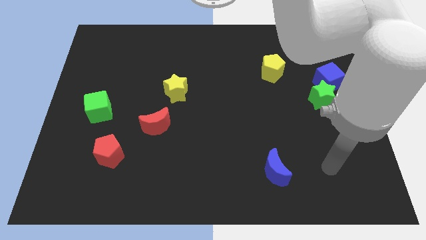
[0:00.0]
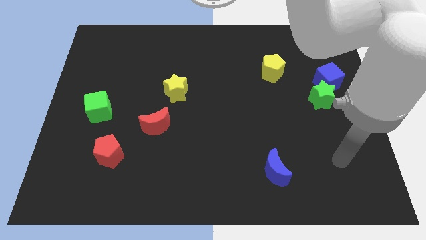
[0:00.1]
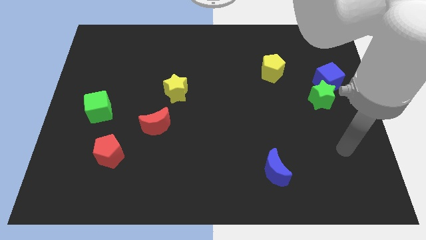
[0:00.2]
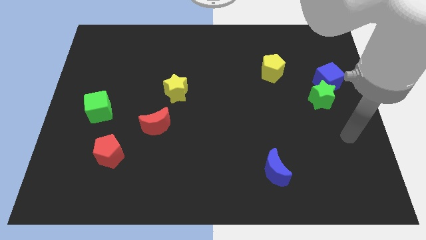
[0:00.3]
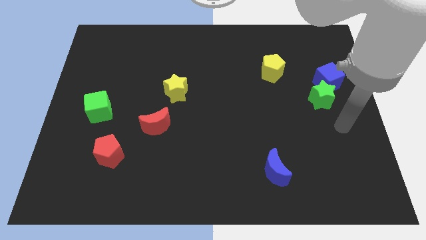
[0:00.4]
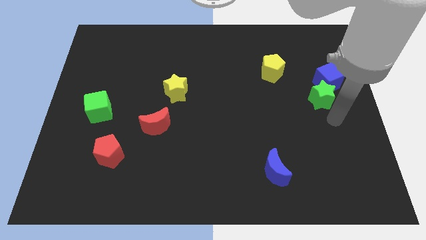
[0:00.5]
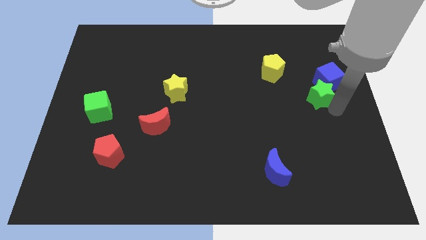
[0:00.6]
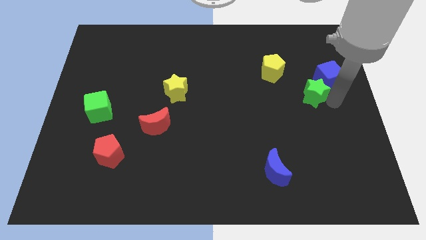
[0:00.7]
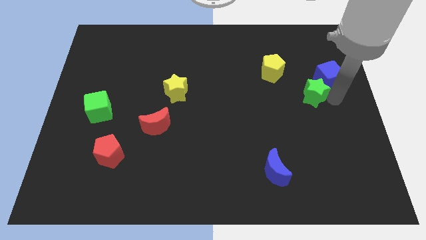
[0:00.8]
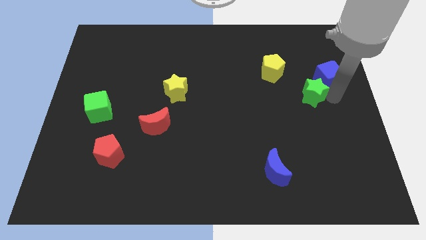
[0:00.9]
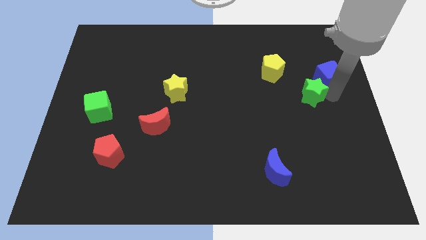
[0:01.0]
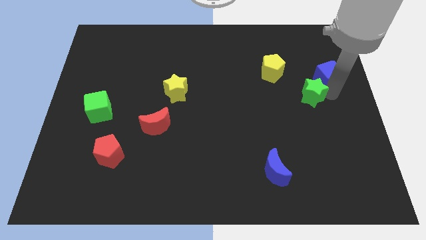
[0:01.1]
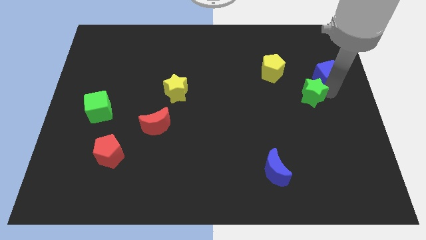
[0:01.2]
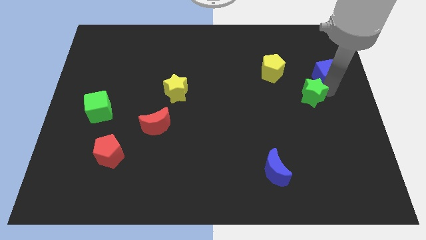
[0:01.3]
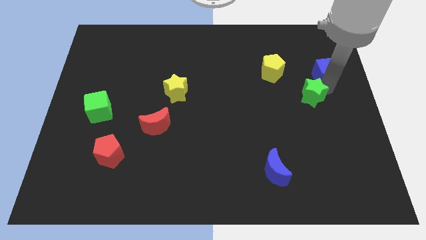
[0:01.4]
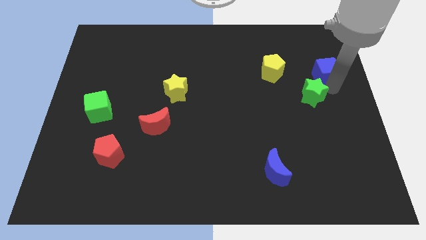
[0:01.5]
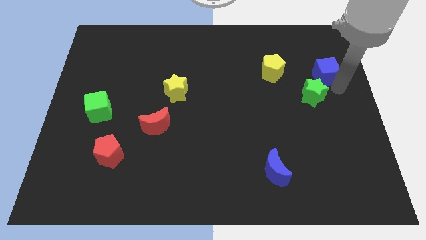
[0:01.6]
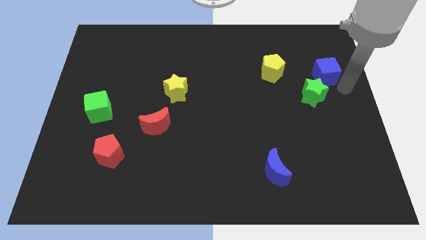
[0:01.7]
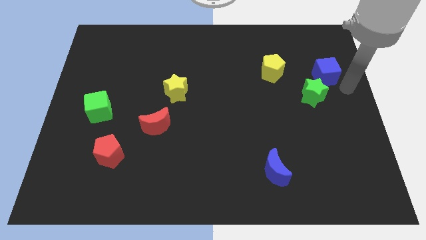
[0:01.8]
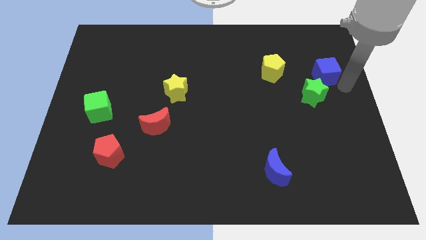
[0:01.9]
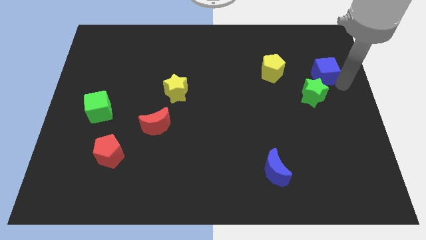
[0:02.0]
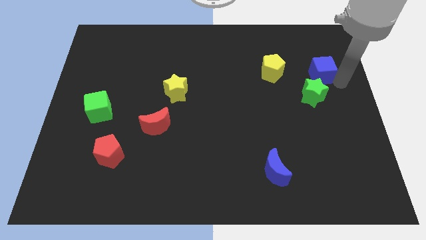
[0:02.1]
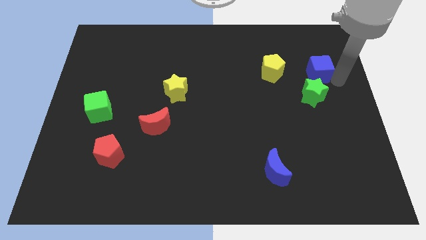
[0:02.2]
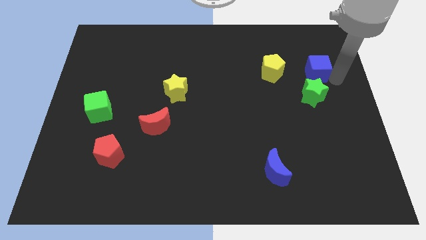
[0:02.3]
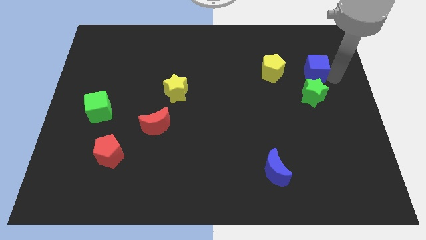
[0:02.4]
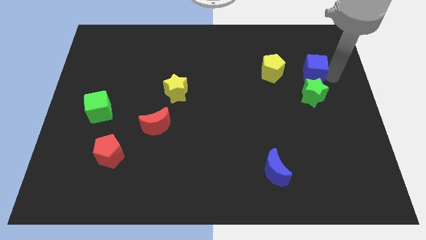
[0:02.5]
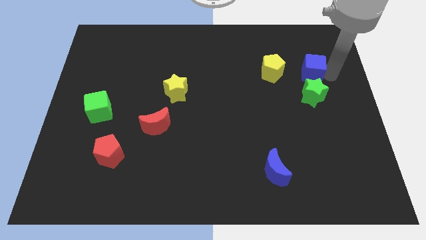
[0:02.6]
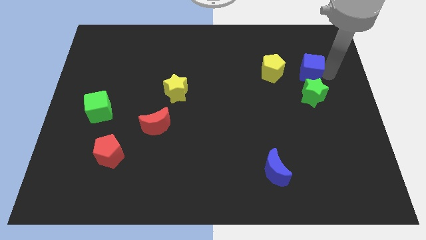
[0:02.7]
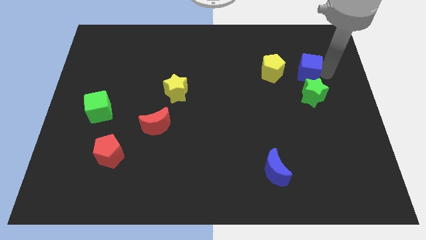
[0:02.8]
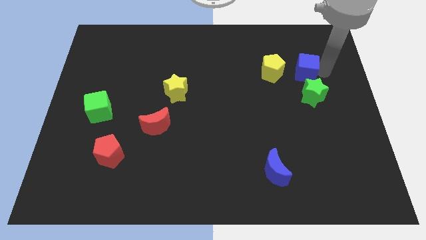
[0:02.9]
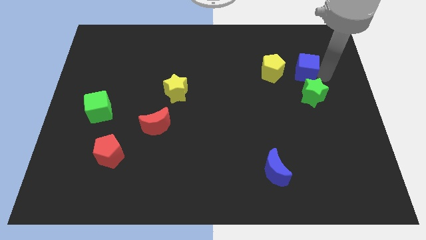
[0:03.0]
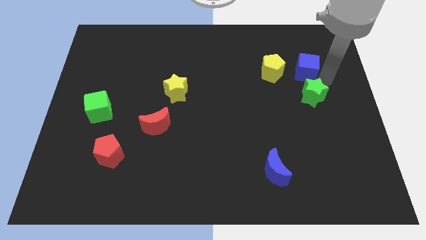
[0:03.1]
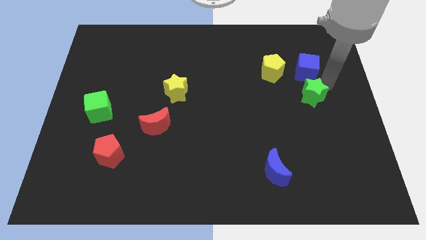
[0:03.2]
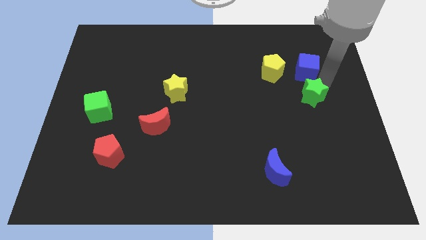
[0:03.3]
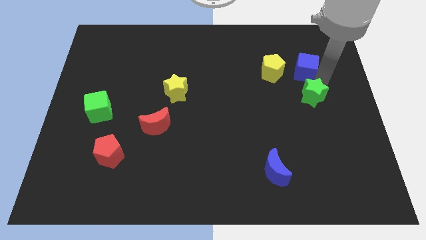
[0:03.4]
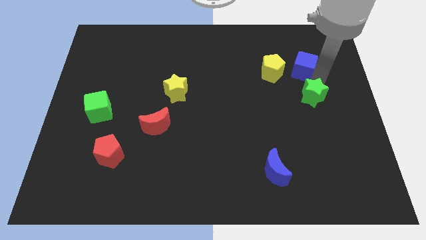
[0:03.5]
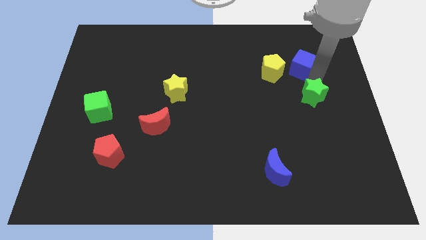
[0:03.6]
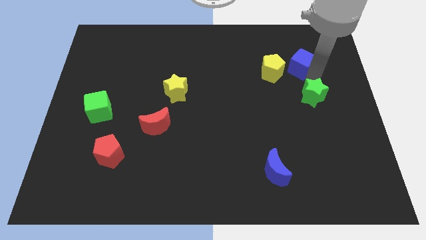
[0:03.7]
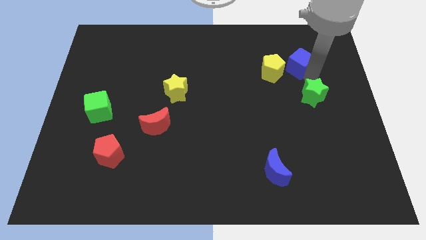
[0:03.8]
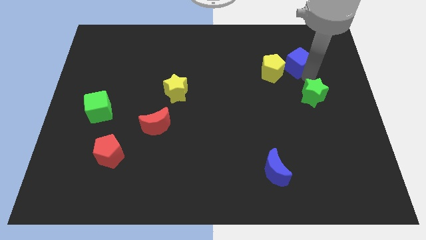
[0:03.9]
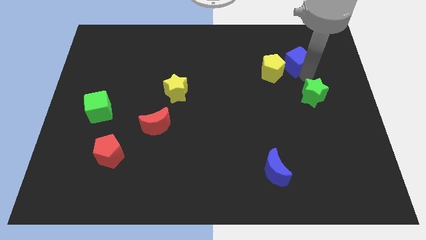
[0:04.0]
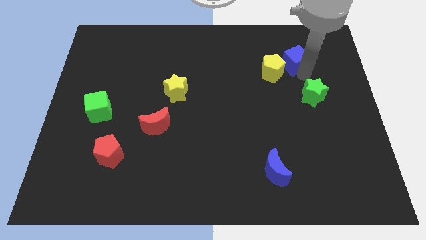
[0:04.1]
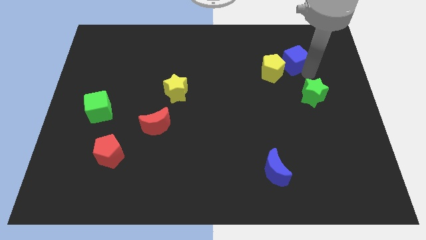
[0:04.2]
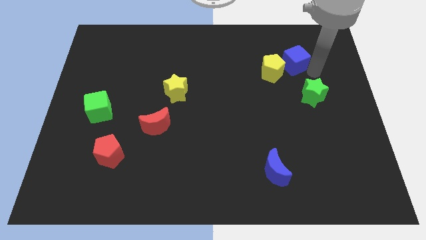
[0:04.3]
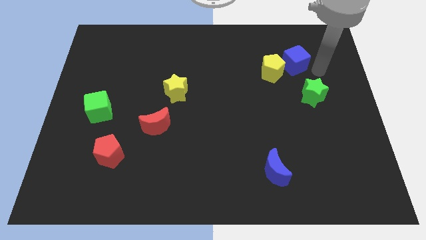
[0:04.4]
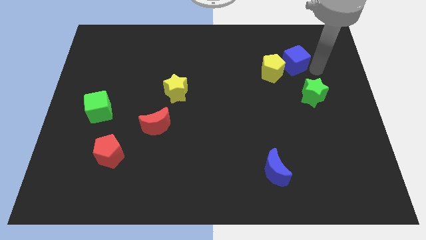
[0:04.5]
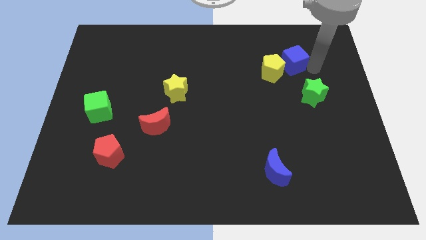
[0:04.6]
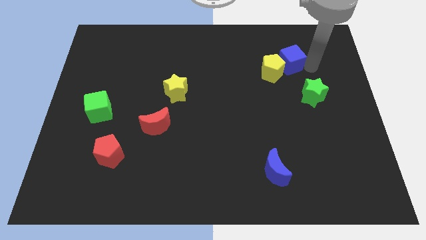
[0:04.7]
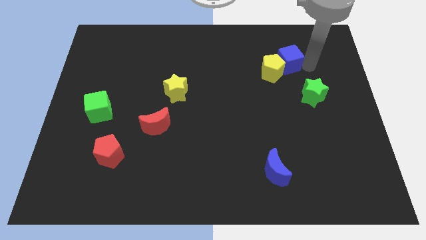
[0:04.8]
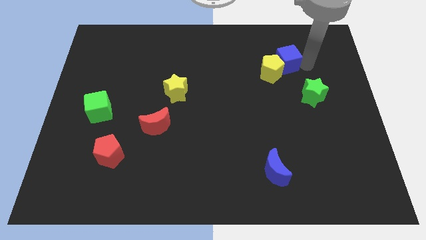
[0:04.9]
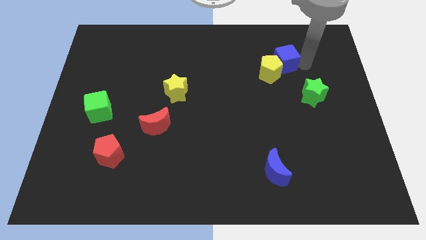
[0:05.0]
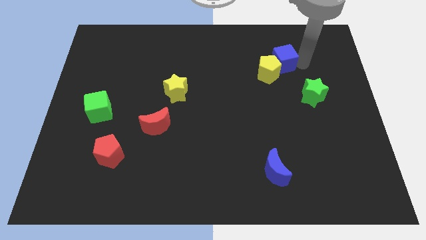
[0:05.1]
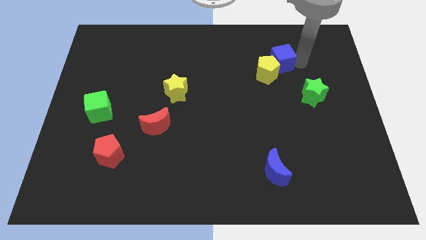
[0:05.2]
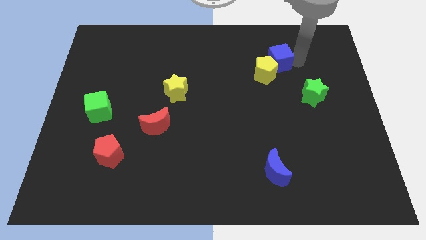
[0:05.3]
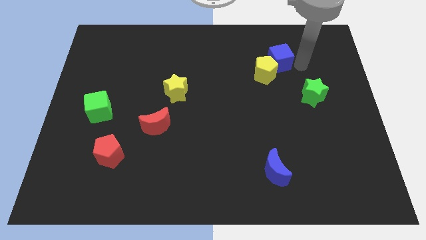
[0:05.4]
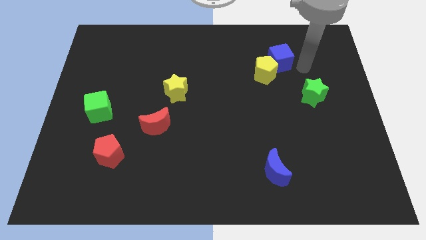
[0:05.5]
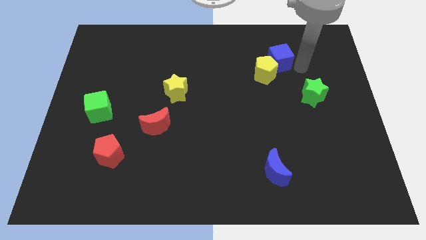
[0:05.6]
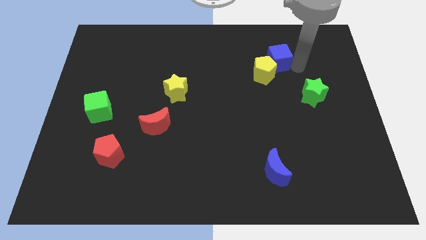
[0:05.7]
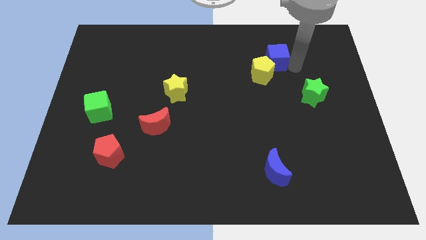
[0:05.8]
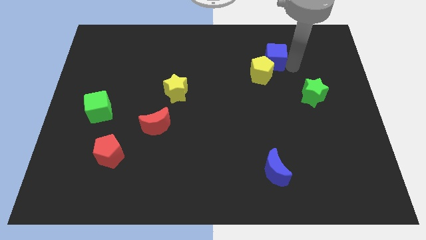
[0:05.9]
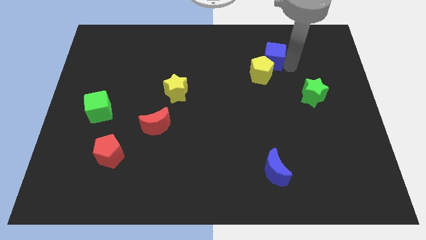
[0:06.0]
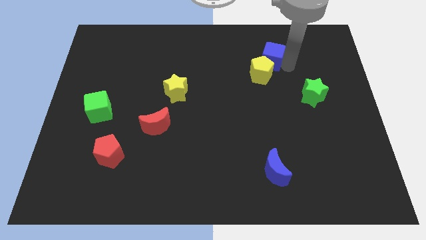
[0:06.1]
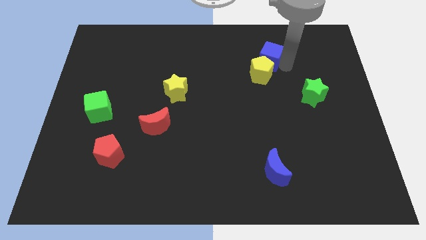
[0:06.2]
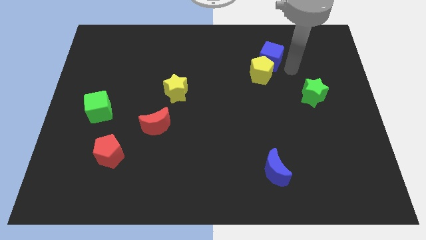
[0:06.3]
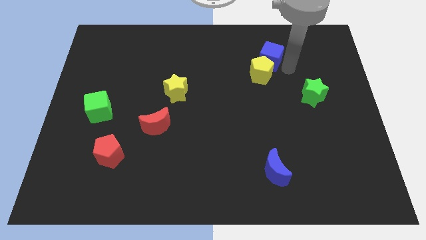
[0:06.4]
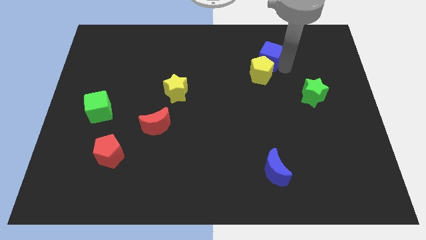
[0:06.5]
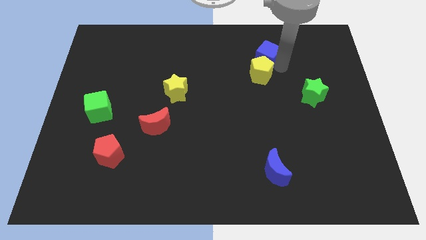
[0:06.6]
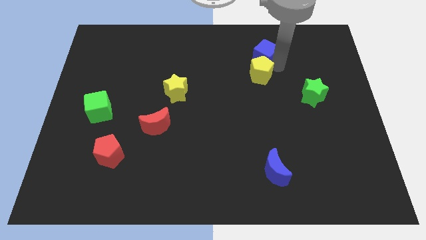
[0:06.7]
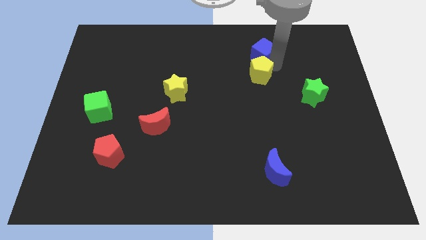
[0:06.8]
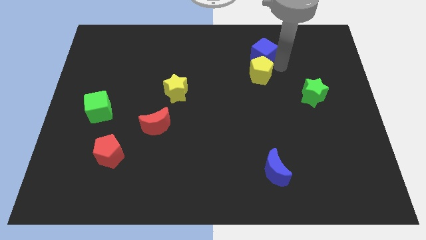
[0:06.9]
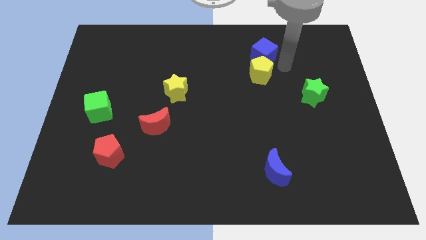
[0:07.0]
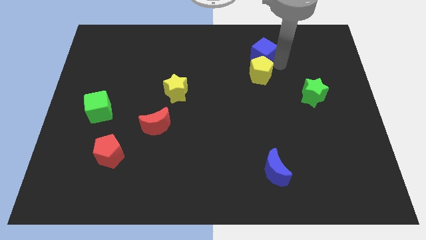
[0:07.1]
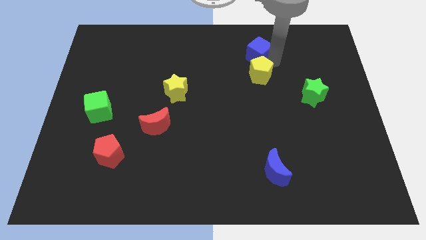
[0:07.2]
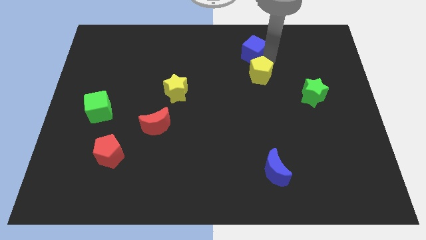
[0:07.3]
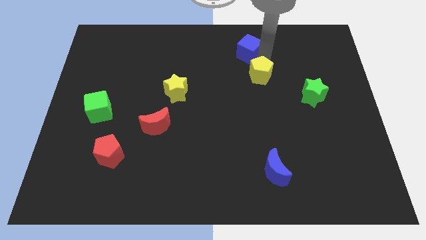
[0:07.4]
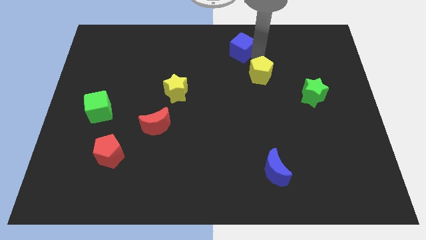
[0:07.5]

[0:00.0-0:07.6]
push the blue cube to the top
